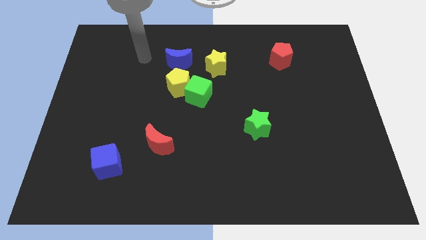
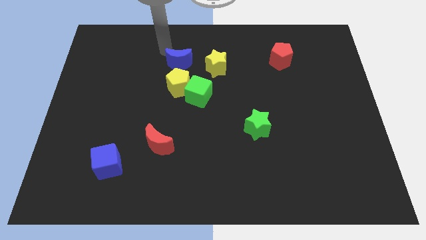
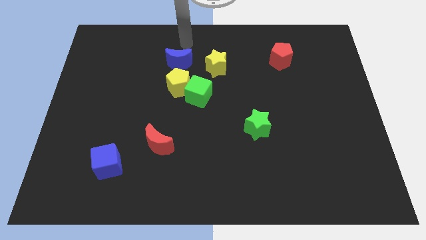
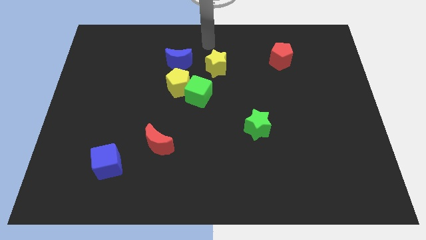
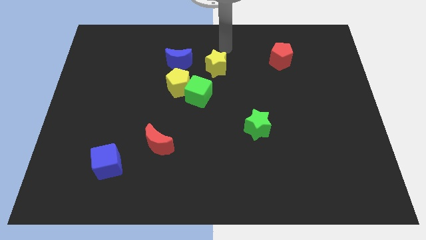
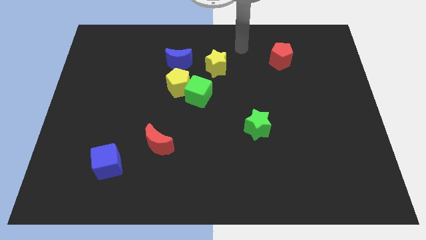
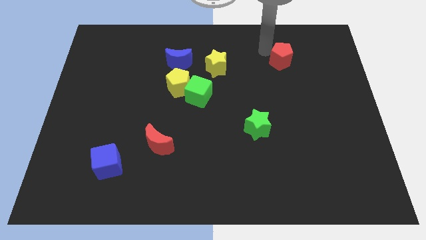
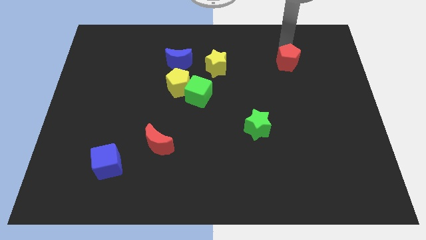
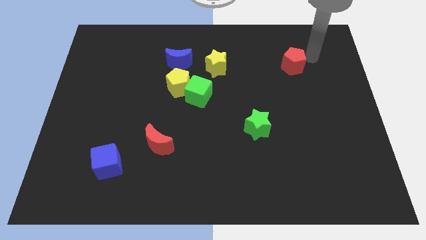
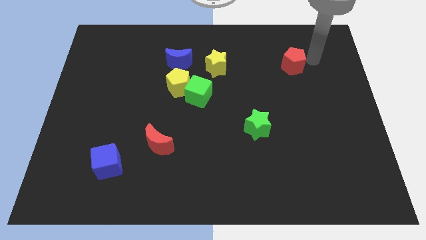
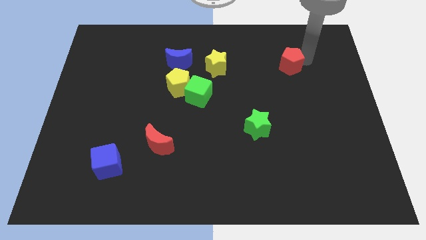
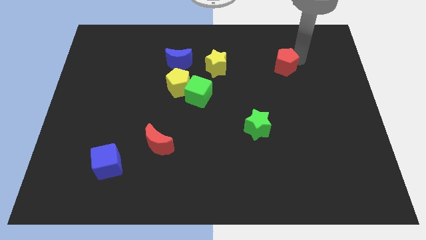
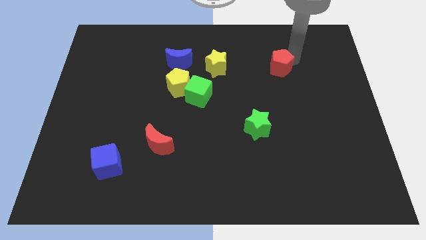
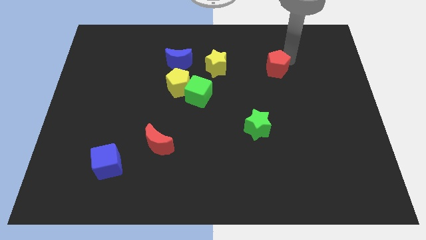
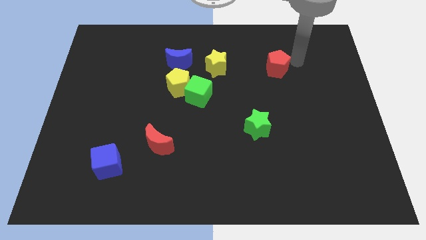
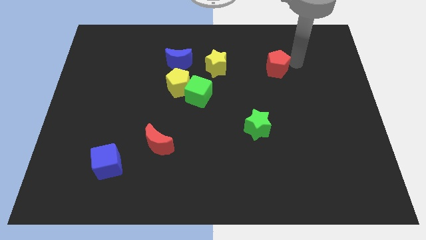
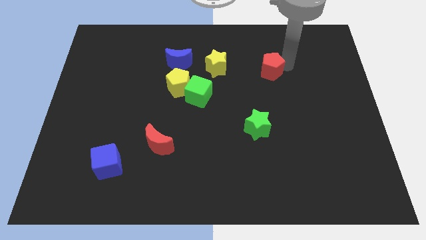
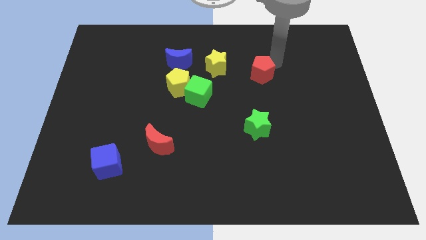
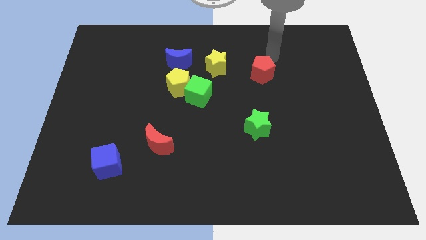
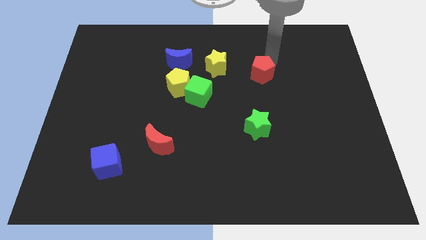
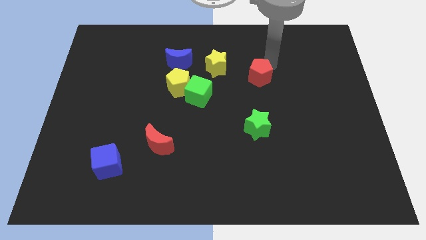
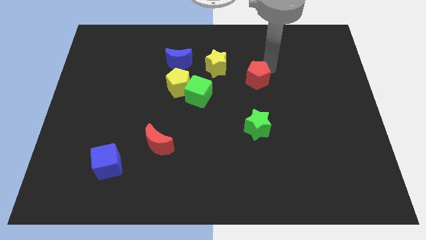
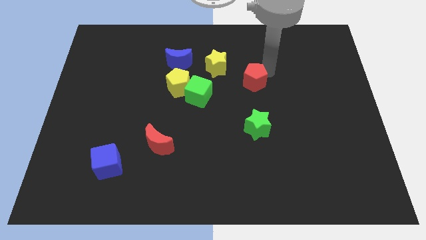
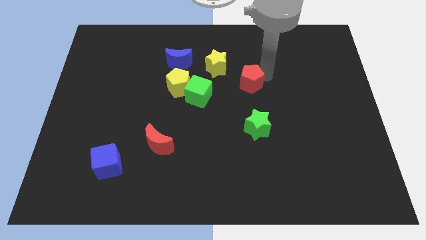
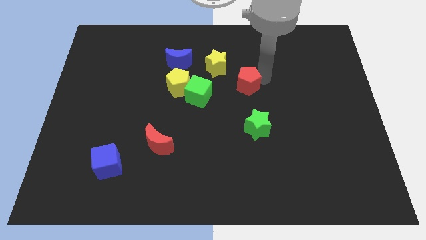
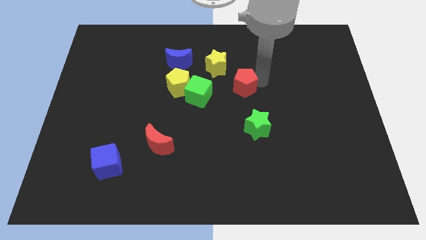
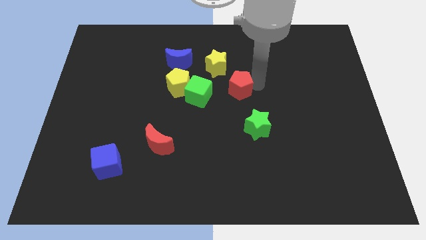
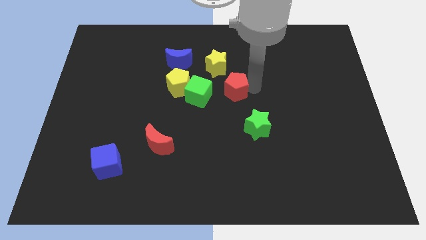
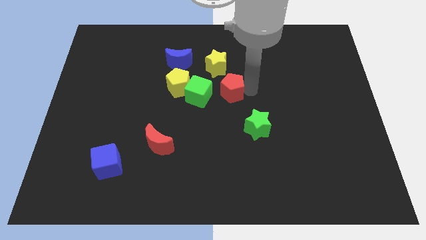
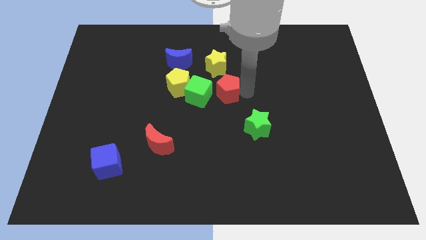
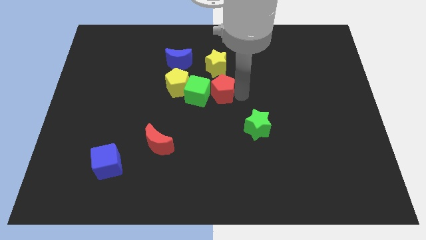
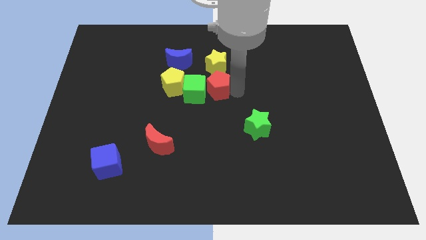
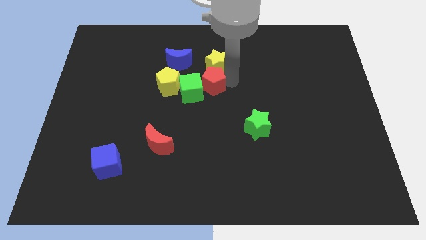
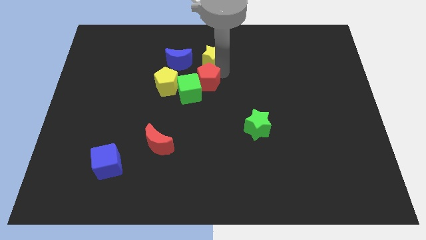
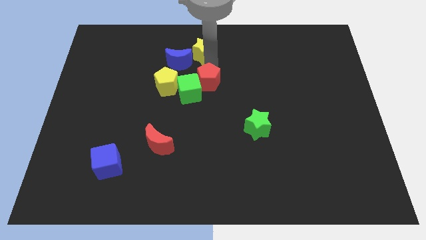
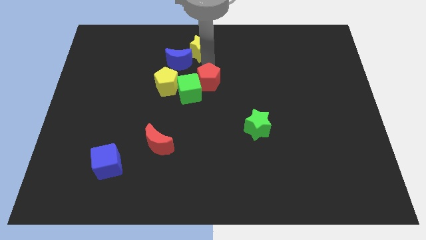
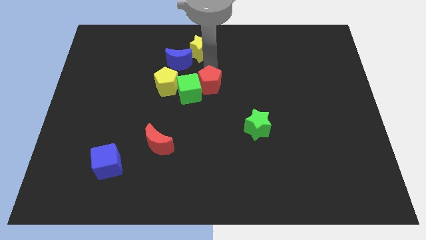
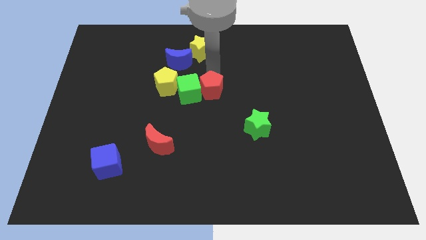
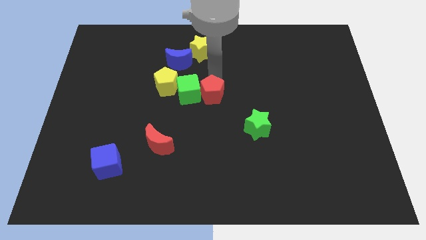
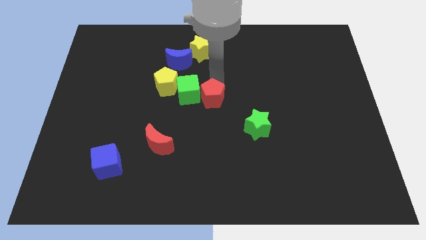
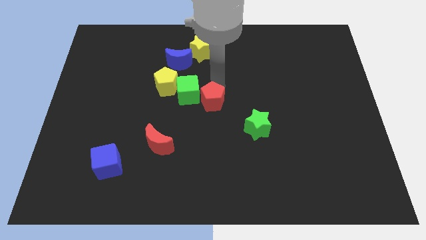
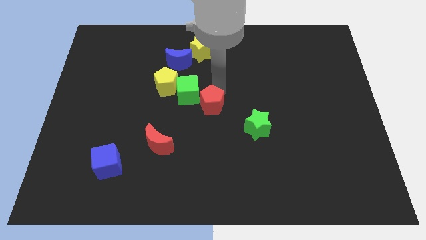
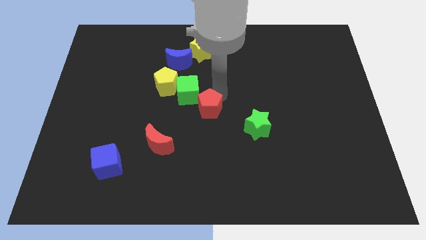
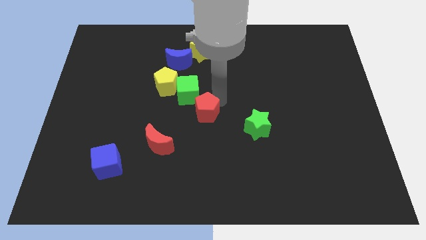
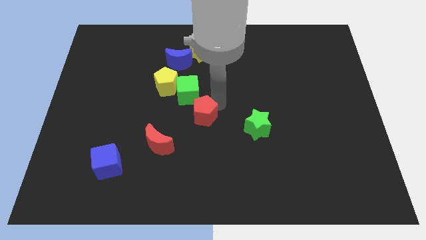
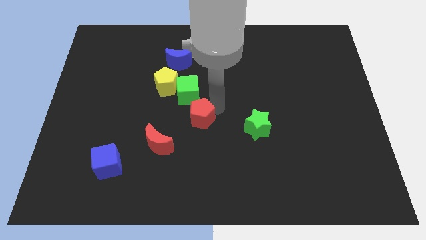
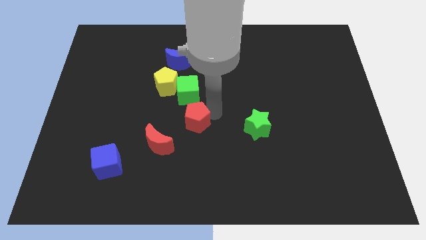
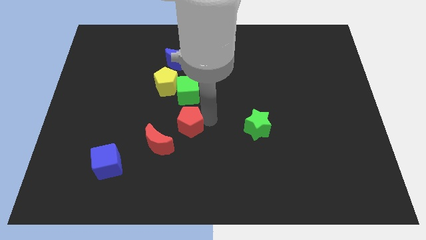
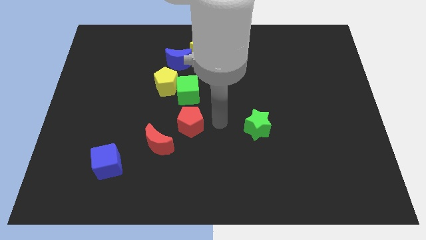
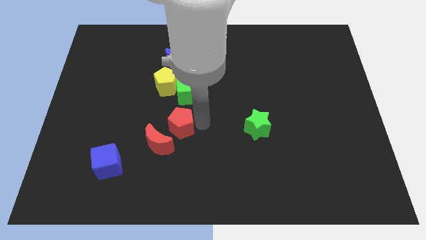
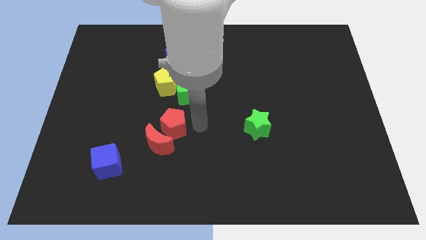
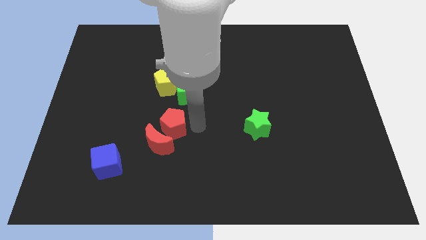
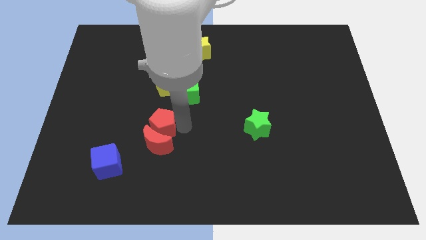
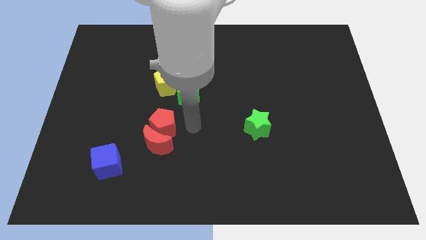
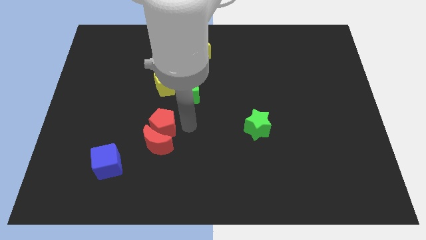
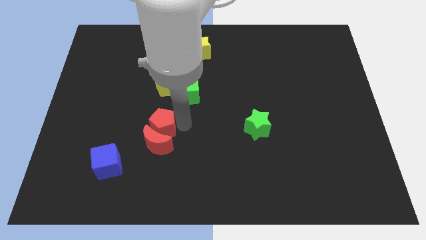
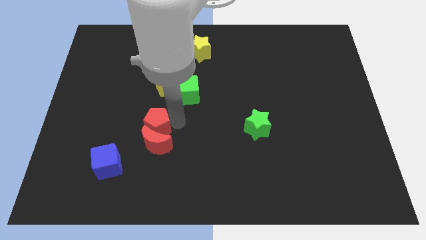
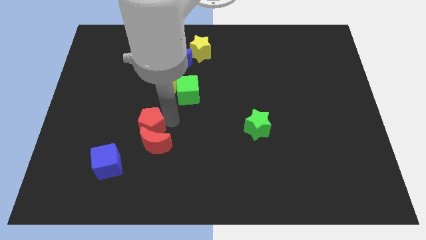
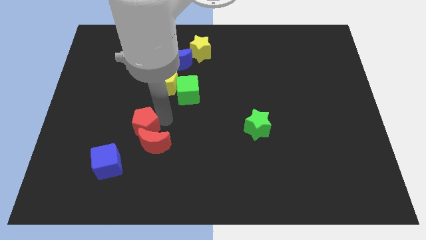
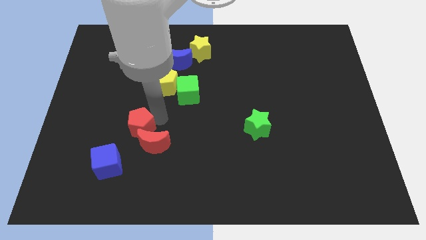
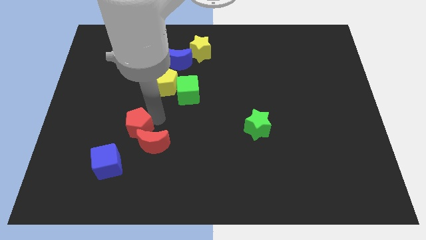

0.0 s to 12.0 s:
push the red pentagon to the left of the red moon

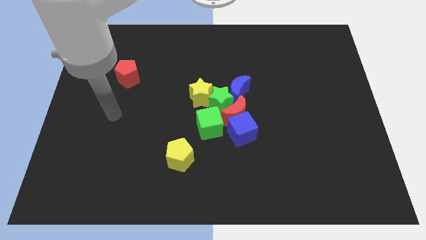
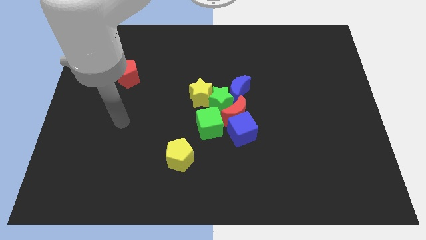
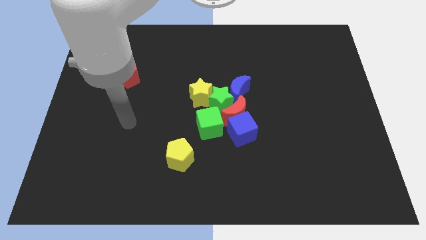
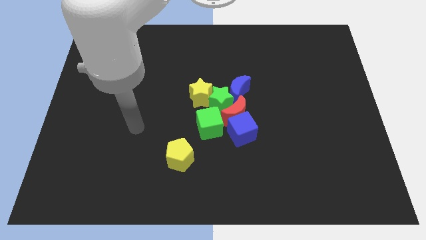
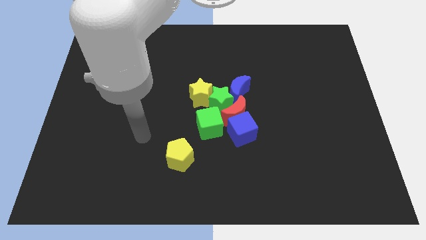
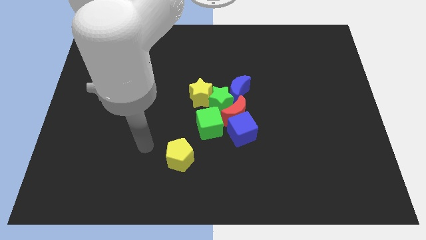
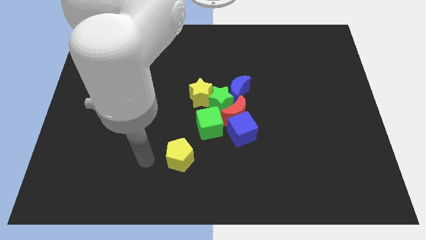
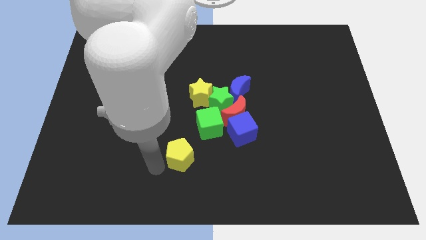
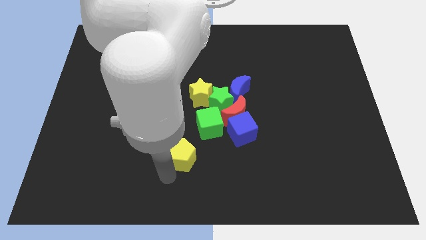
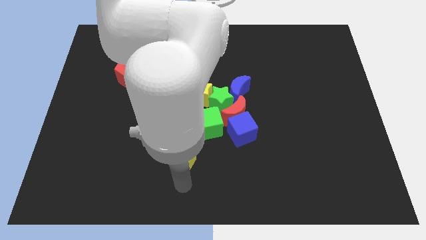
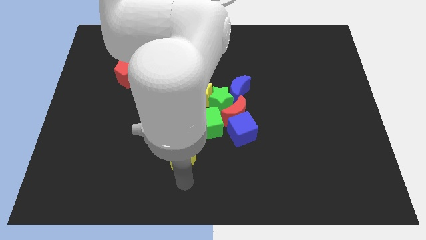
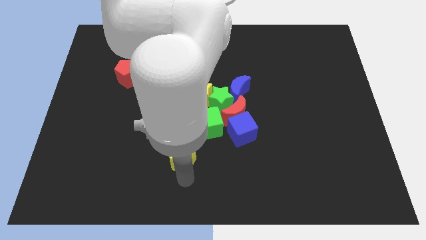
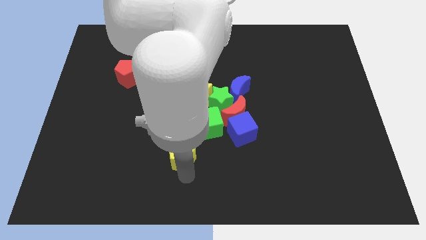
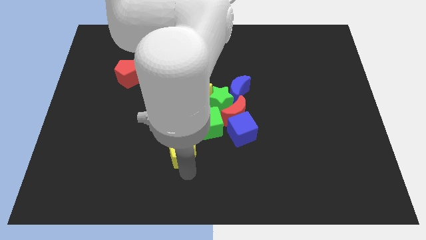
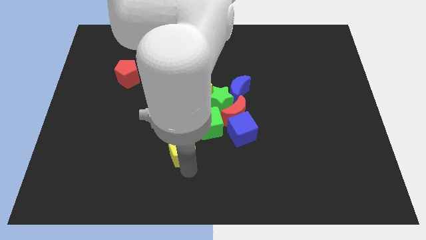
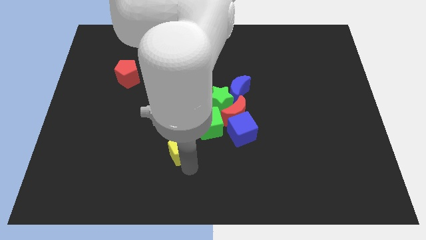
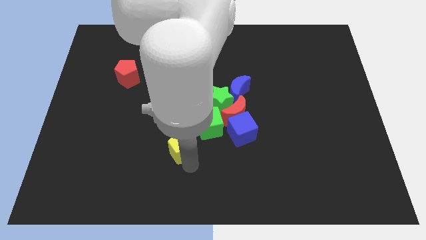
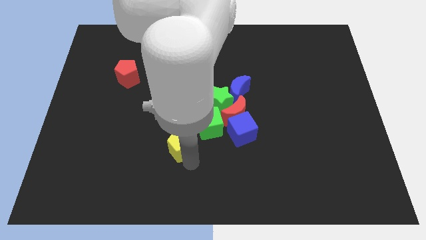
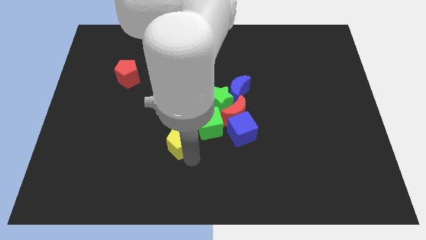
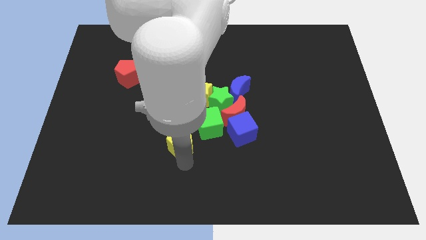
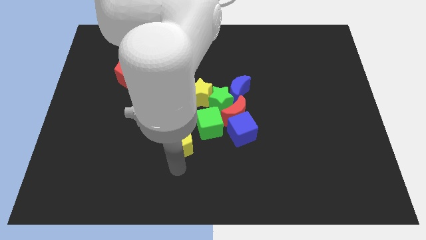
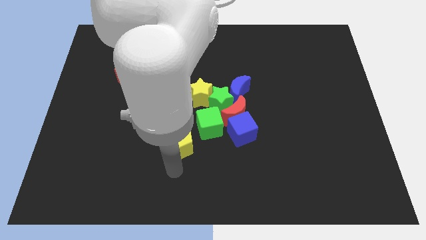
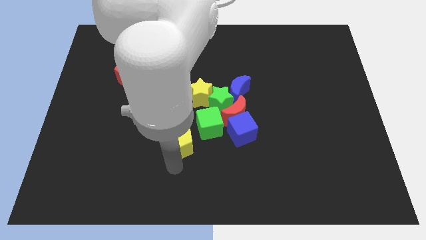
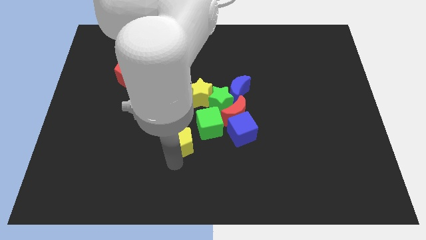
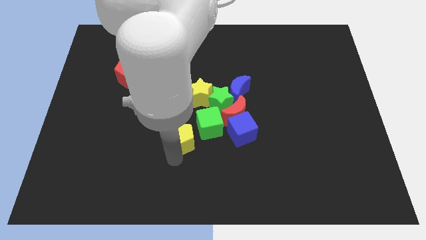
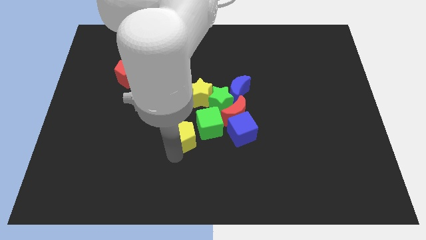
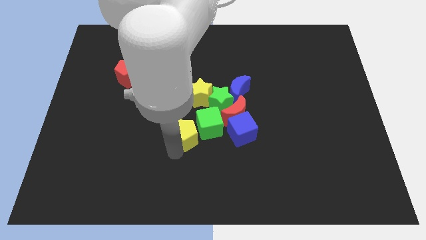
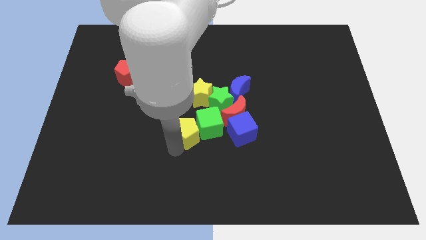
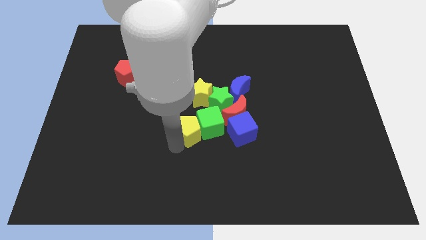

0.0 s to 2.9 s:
slide the yellow pentagon to the left side of the red moon
